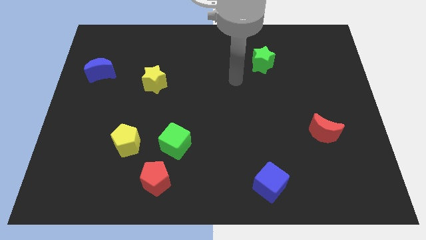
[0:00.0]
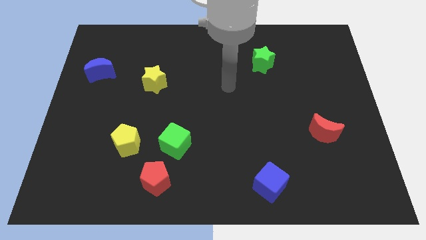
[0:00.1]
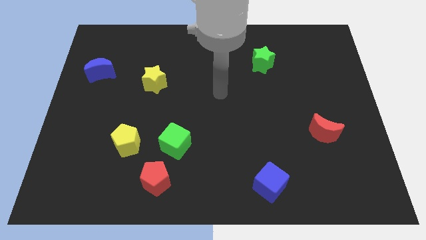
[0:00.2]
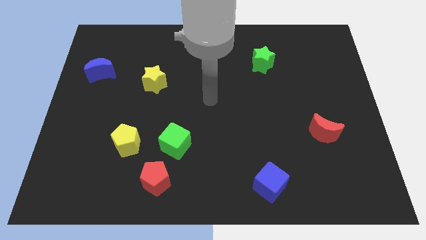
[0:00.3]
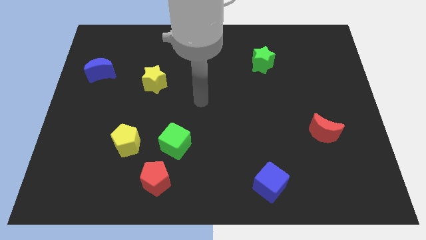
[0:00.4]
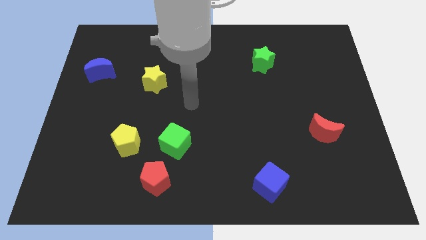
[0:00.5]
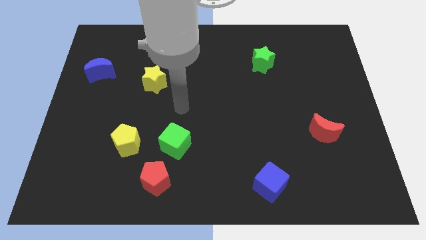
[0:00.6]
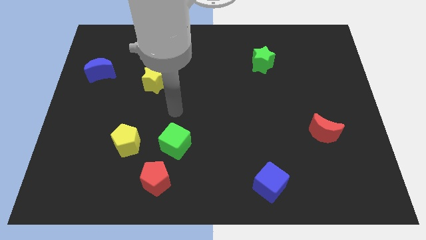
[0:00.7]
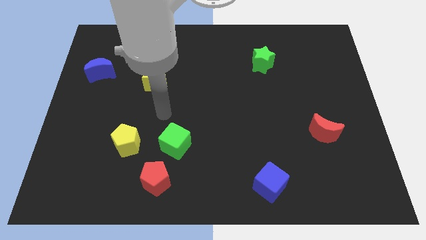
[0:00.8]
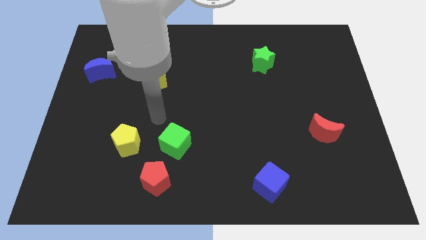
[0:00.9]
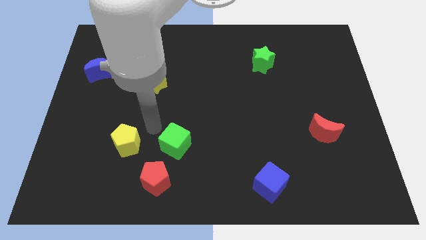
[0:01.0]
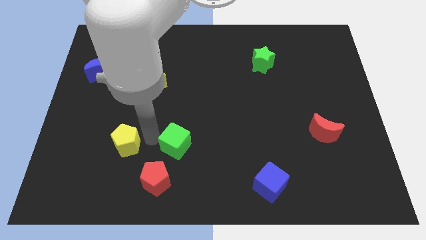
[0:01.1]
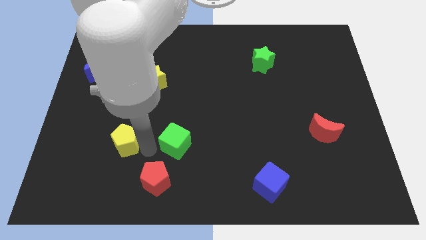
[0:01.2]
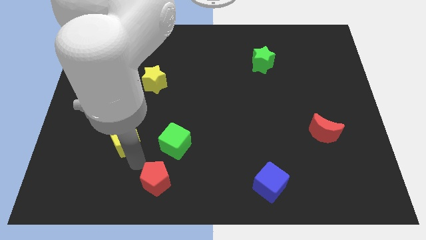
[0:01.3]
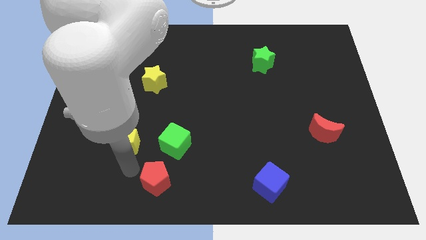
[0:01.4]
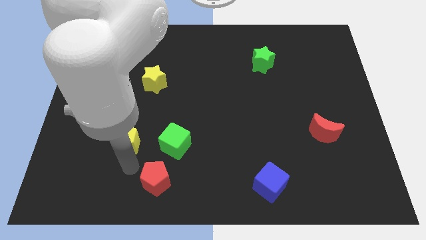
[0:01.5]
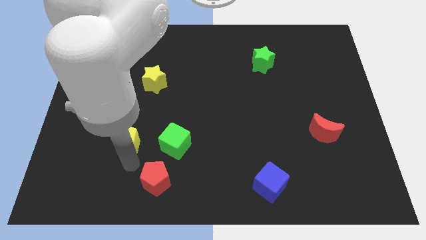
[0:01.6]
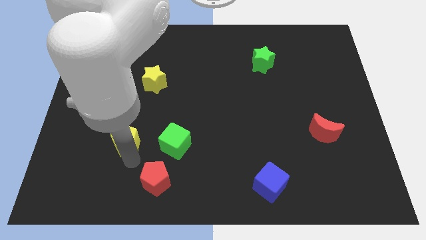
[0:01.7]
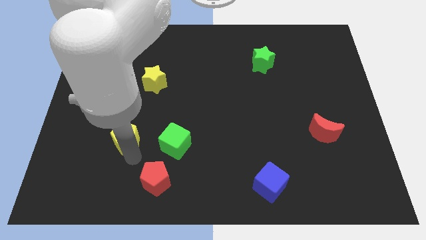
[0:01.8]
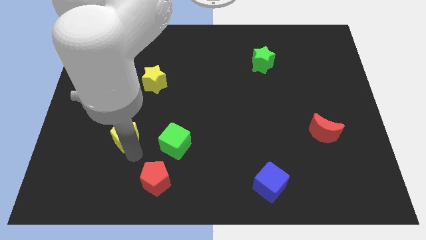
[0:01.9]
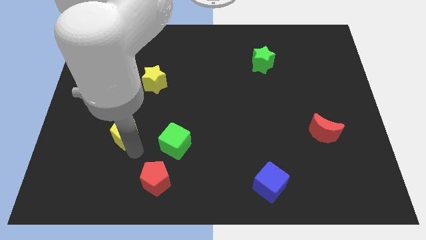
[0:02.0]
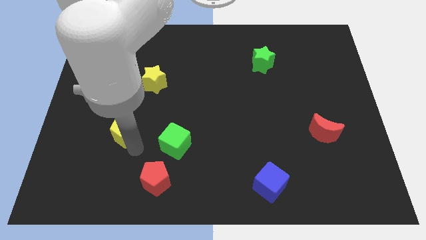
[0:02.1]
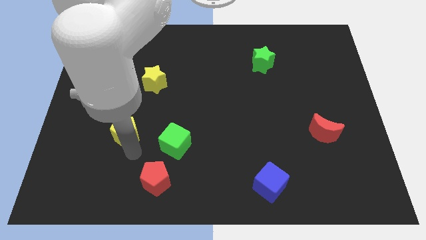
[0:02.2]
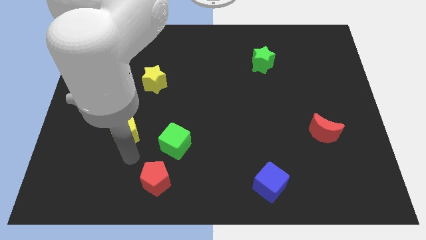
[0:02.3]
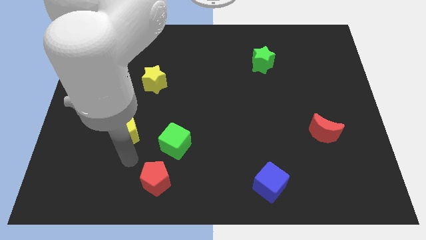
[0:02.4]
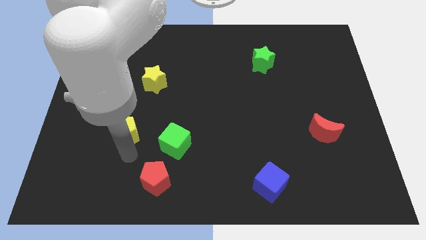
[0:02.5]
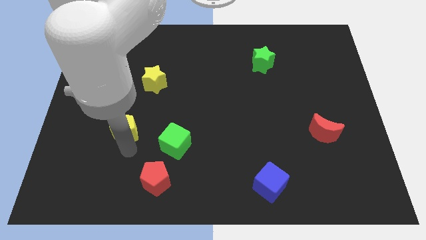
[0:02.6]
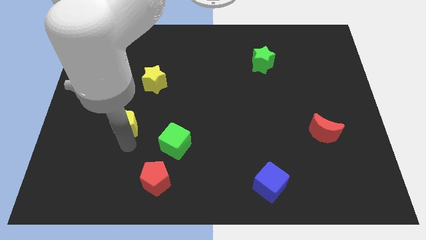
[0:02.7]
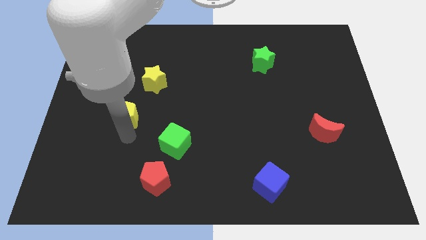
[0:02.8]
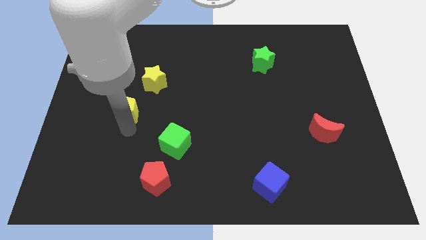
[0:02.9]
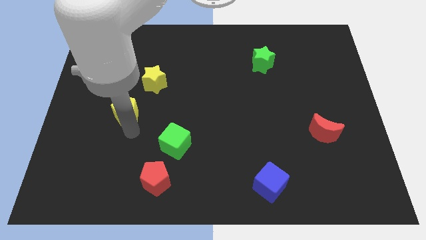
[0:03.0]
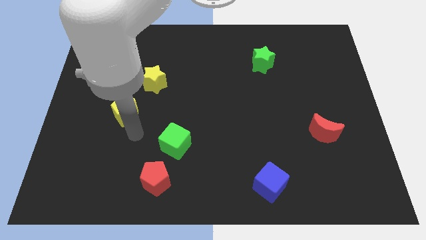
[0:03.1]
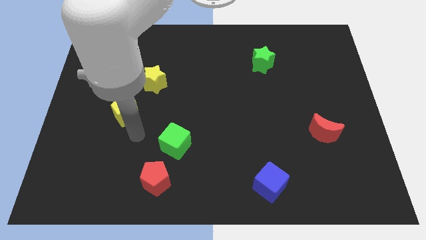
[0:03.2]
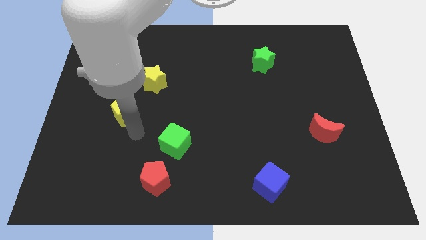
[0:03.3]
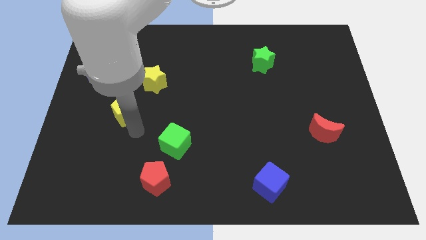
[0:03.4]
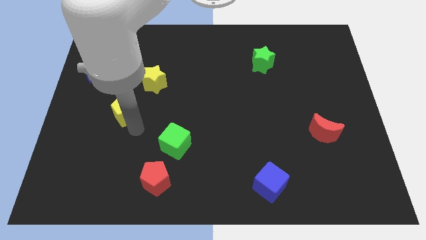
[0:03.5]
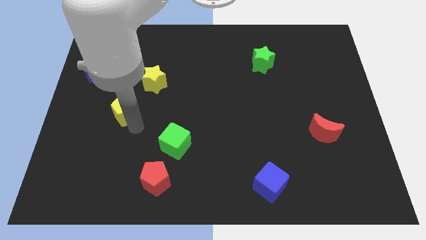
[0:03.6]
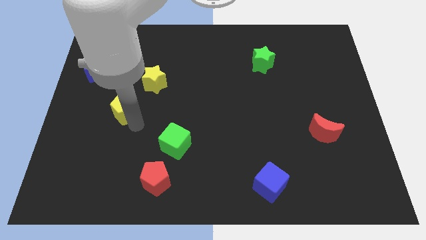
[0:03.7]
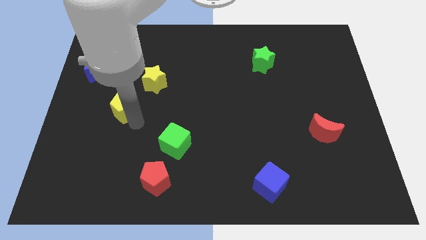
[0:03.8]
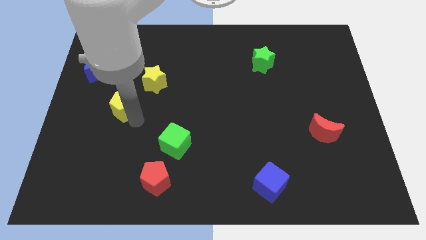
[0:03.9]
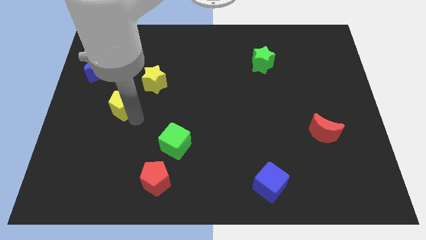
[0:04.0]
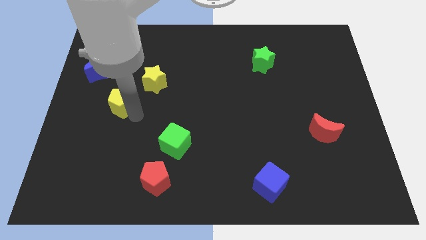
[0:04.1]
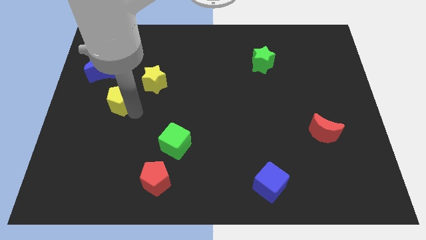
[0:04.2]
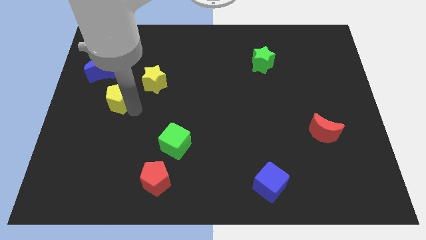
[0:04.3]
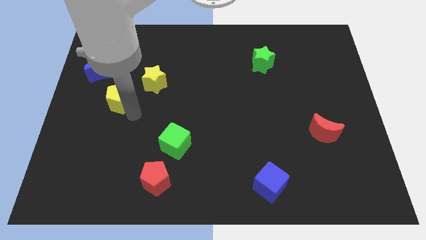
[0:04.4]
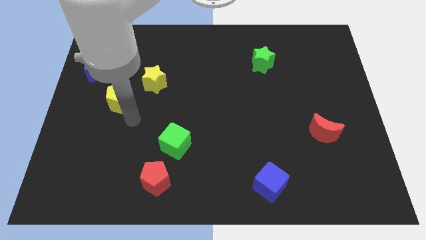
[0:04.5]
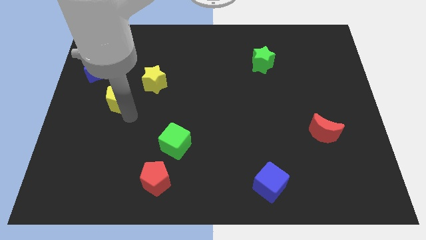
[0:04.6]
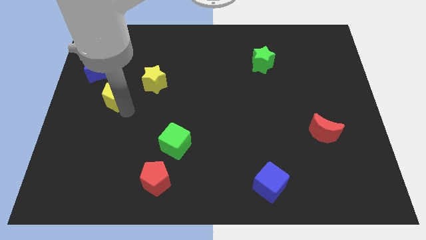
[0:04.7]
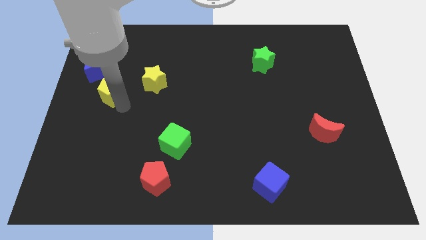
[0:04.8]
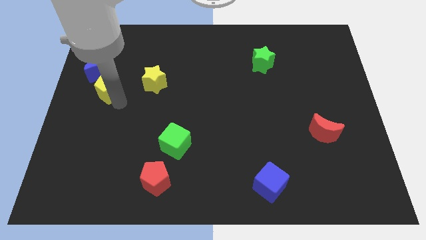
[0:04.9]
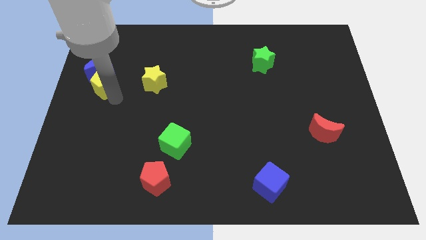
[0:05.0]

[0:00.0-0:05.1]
slide the yellow pentagon towards the blue moon
